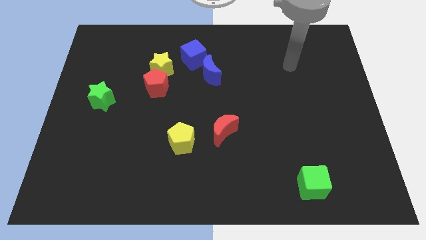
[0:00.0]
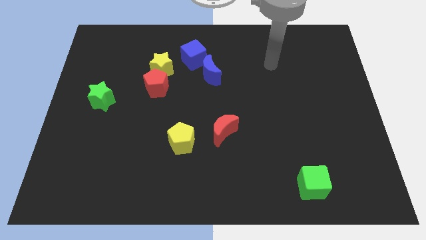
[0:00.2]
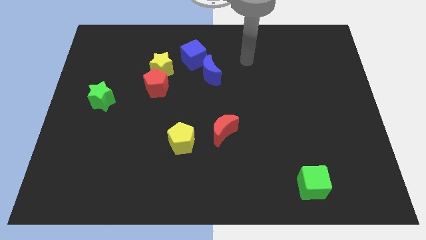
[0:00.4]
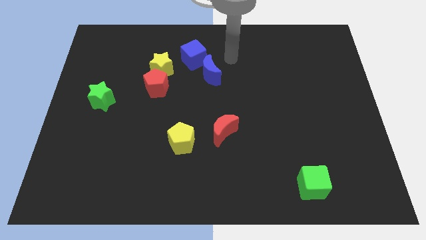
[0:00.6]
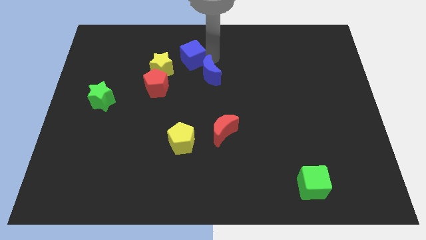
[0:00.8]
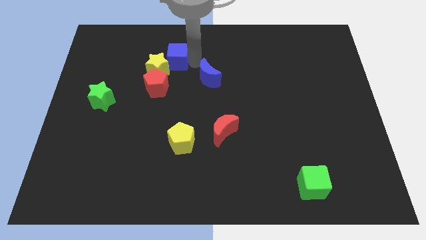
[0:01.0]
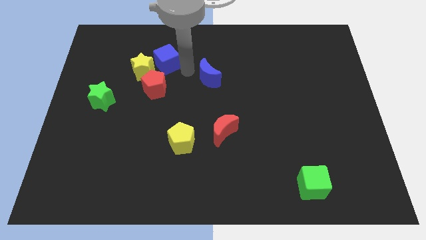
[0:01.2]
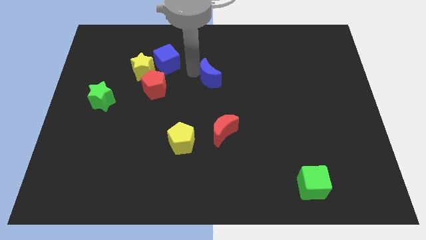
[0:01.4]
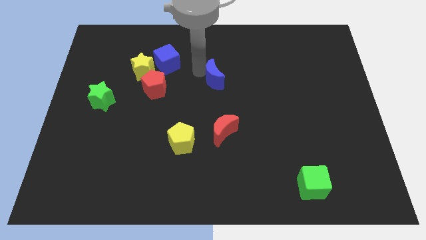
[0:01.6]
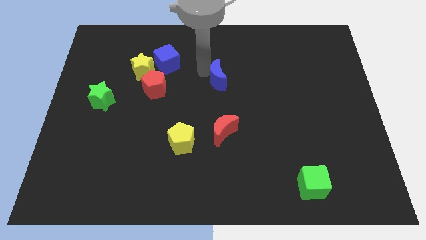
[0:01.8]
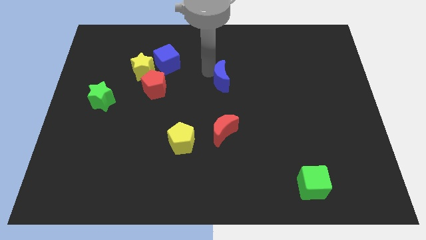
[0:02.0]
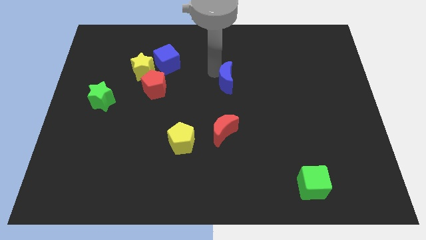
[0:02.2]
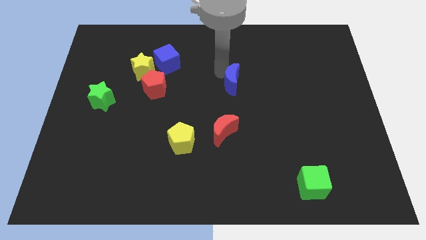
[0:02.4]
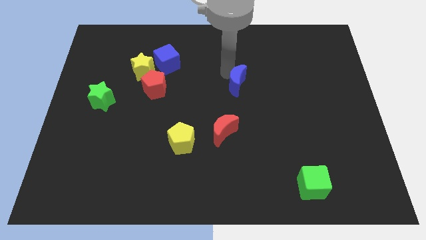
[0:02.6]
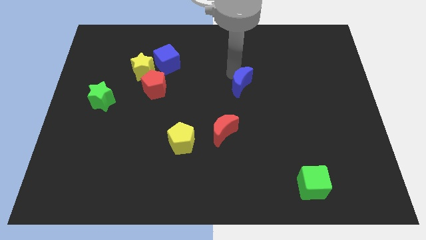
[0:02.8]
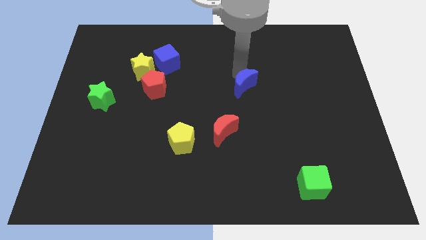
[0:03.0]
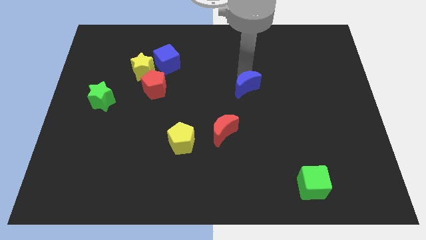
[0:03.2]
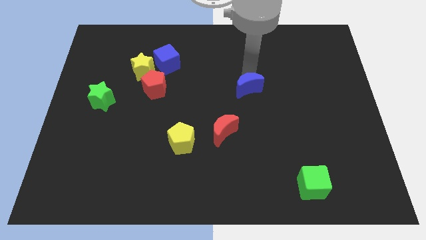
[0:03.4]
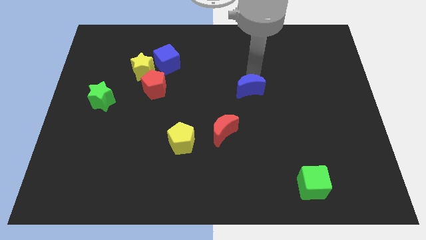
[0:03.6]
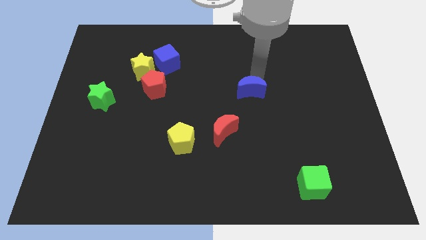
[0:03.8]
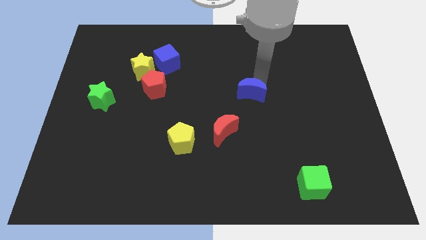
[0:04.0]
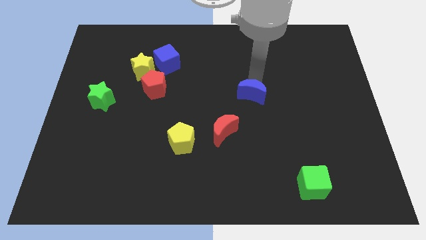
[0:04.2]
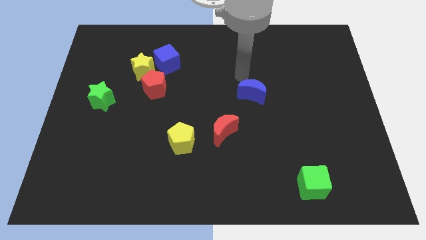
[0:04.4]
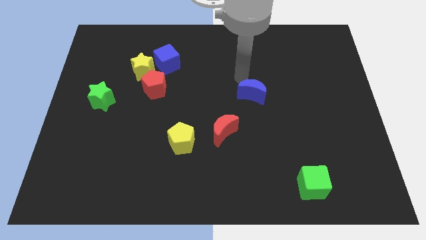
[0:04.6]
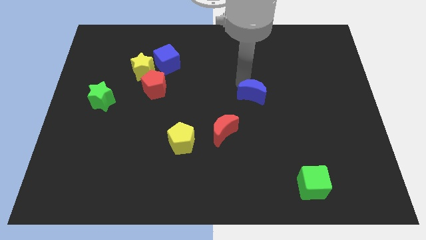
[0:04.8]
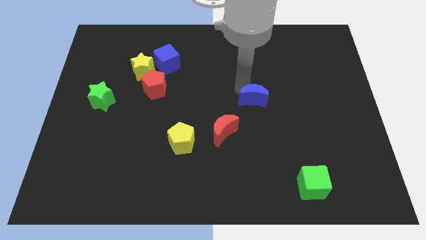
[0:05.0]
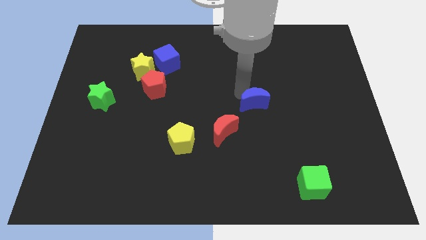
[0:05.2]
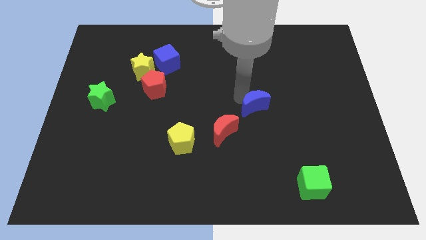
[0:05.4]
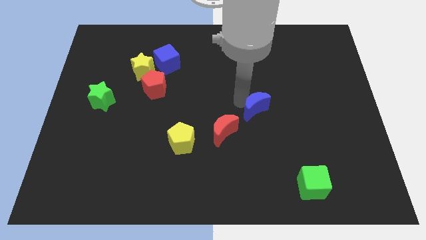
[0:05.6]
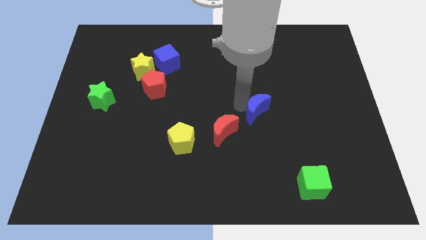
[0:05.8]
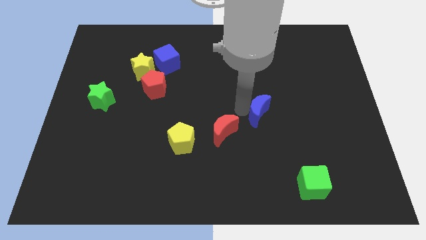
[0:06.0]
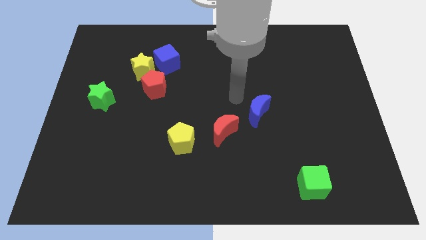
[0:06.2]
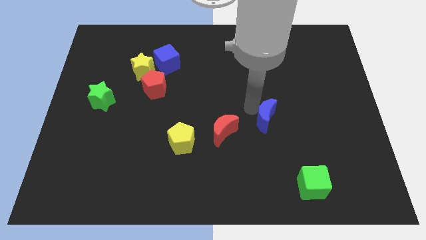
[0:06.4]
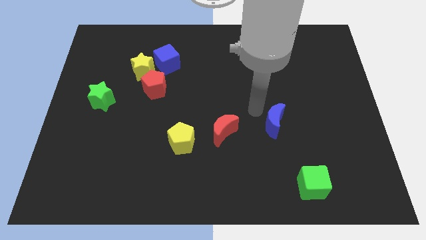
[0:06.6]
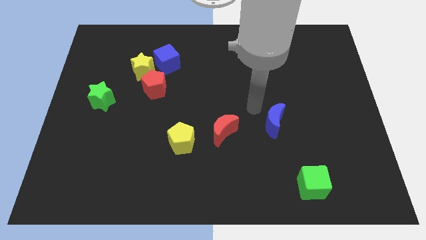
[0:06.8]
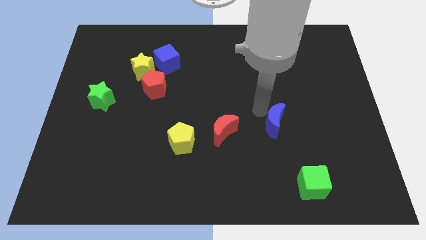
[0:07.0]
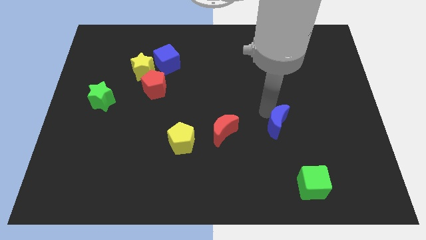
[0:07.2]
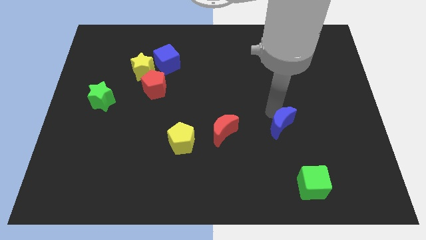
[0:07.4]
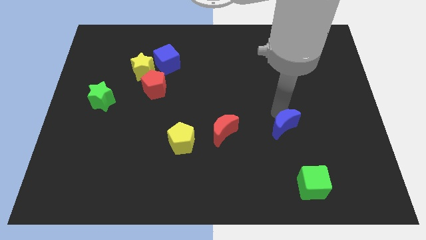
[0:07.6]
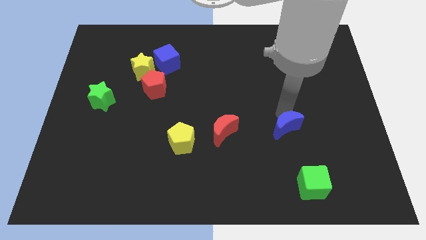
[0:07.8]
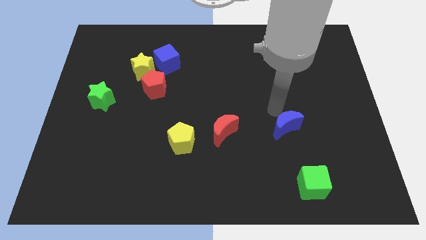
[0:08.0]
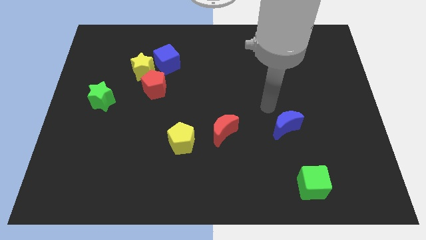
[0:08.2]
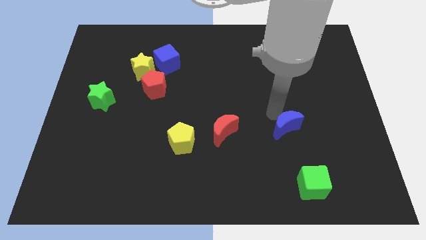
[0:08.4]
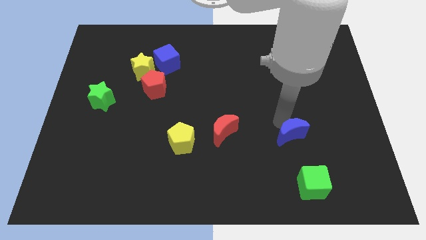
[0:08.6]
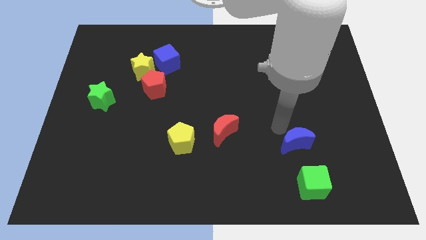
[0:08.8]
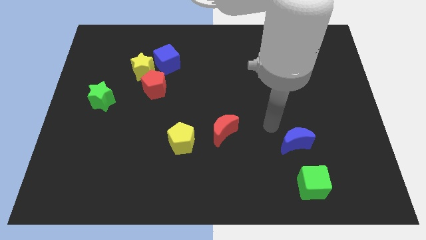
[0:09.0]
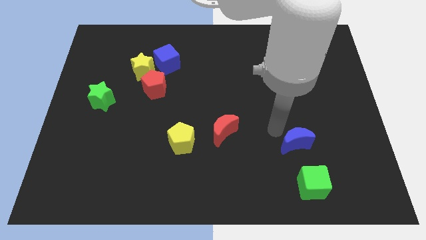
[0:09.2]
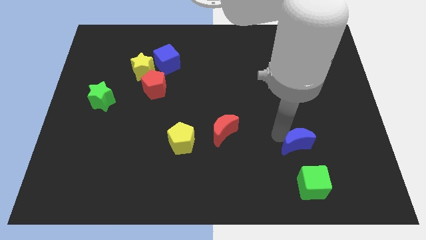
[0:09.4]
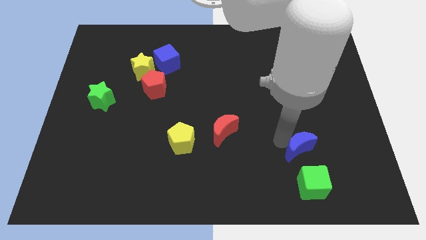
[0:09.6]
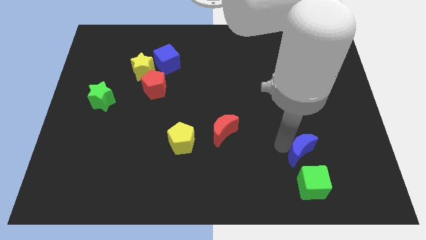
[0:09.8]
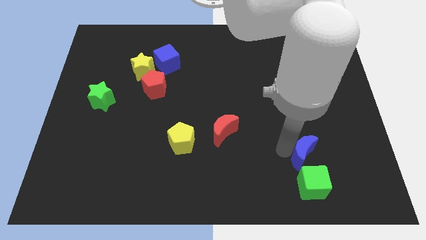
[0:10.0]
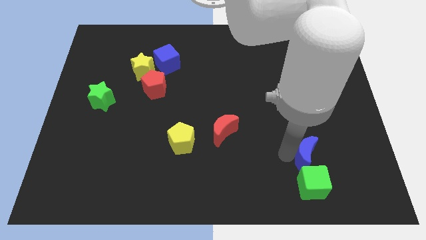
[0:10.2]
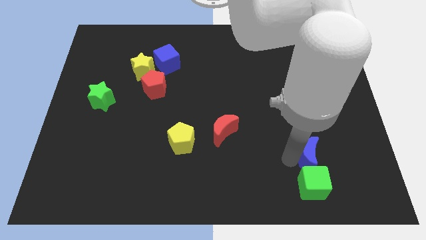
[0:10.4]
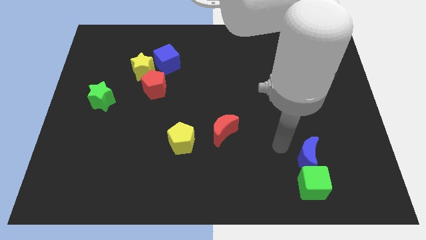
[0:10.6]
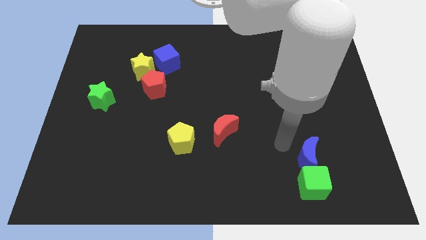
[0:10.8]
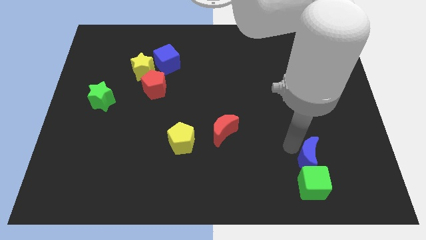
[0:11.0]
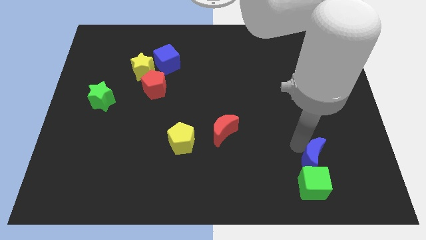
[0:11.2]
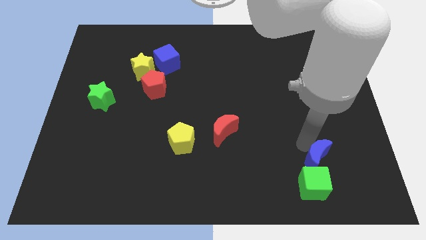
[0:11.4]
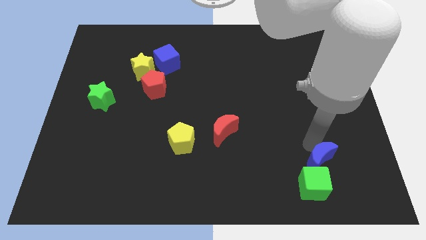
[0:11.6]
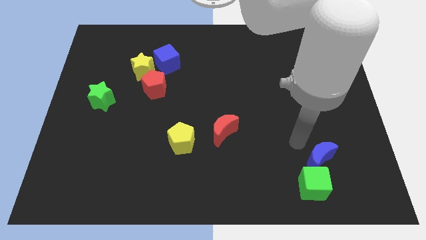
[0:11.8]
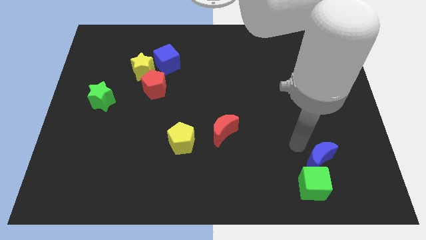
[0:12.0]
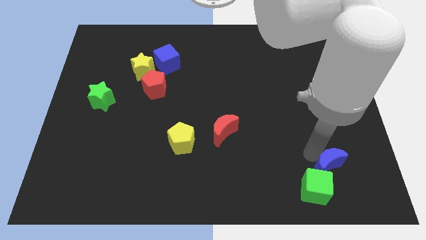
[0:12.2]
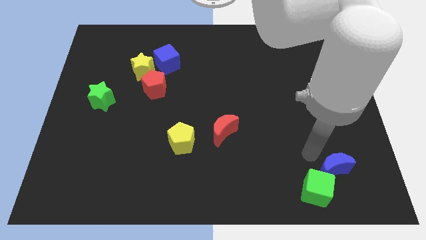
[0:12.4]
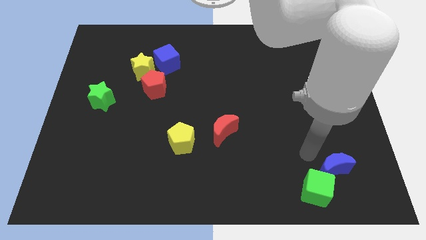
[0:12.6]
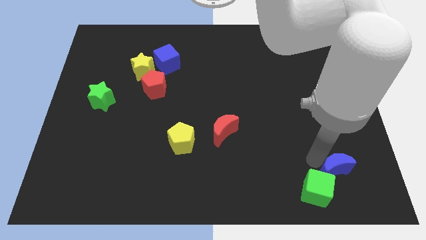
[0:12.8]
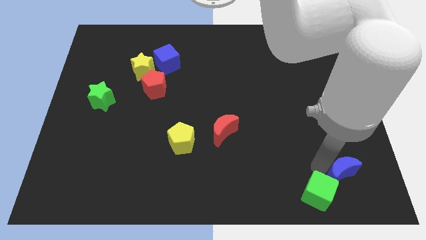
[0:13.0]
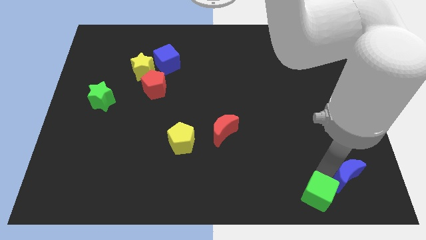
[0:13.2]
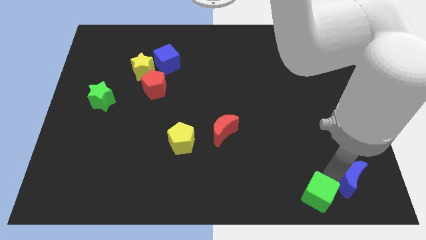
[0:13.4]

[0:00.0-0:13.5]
slide the blue moon to the bottom right corner

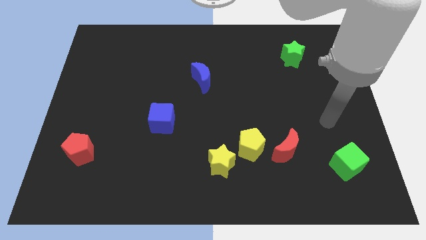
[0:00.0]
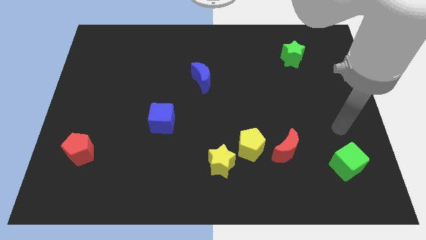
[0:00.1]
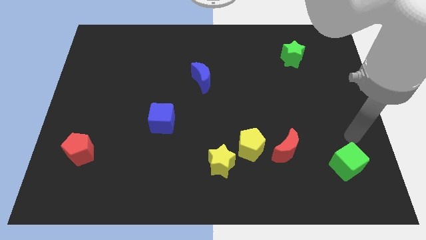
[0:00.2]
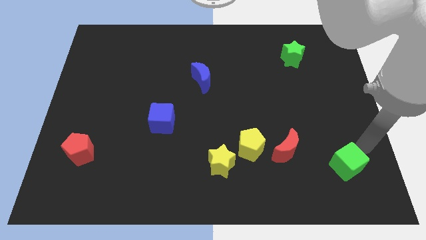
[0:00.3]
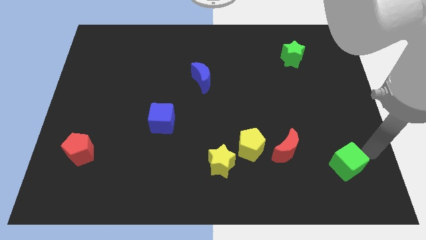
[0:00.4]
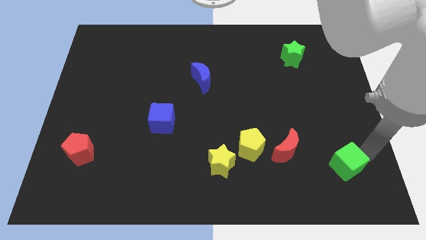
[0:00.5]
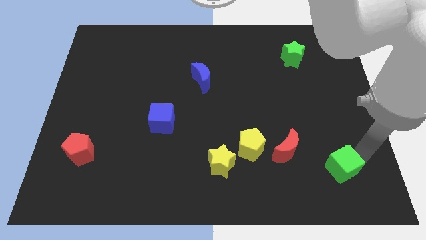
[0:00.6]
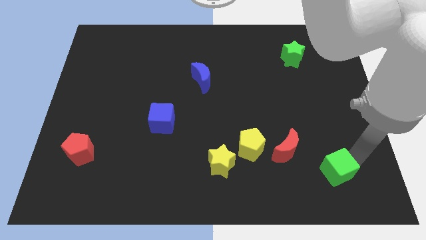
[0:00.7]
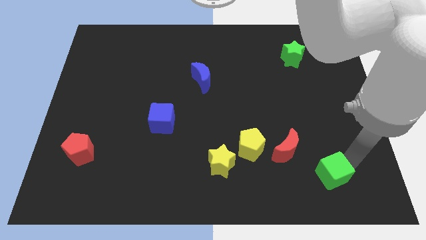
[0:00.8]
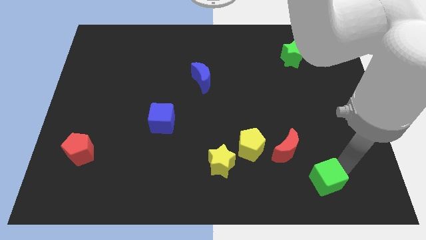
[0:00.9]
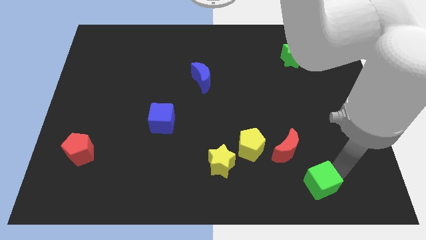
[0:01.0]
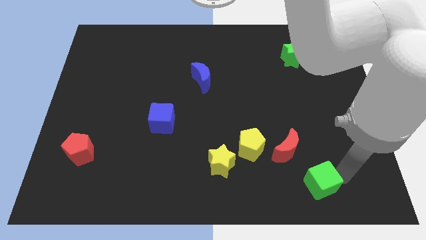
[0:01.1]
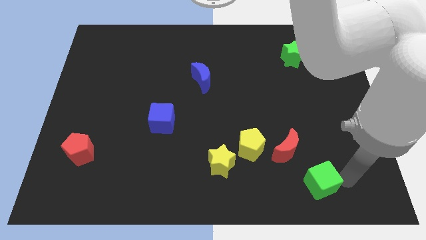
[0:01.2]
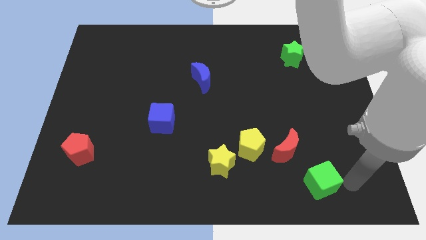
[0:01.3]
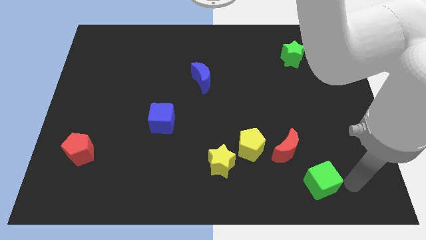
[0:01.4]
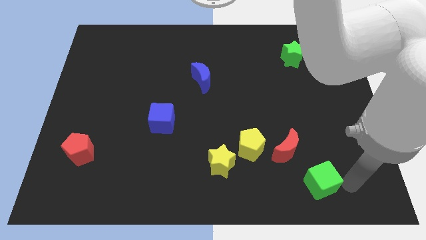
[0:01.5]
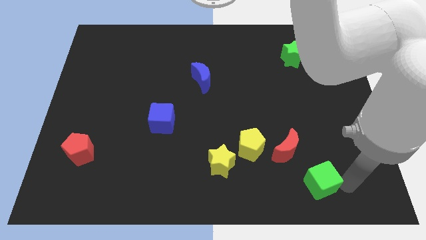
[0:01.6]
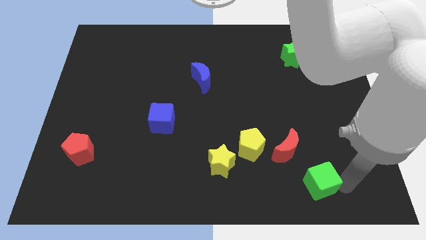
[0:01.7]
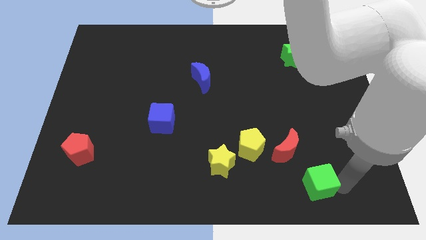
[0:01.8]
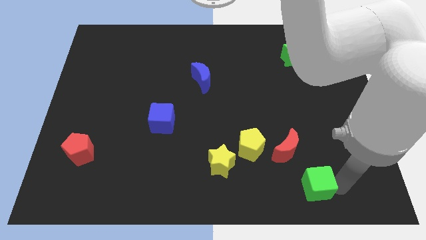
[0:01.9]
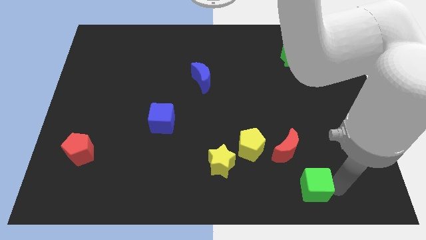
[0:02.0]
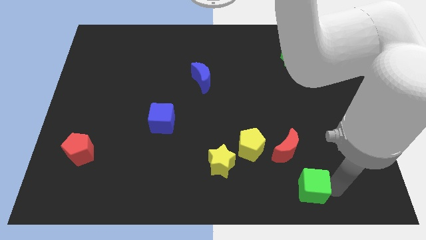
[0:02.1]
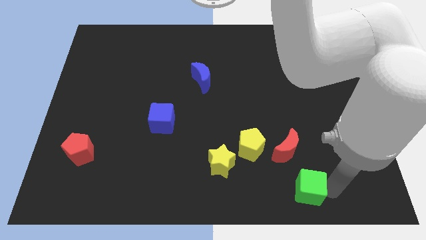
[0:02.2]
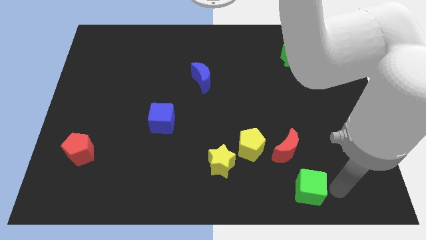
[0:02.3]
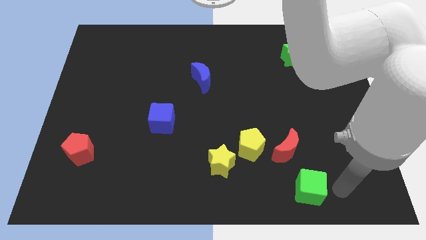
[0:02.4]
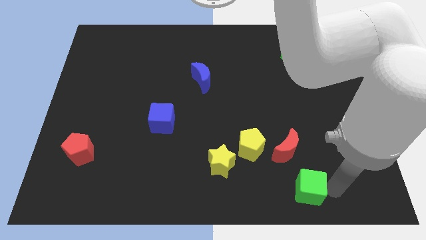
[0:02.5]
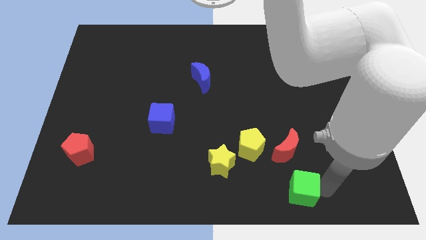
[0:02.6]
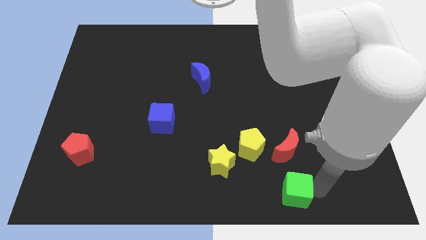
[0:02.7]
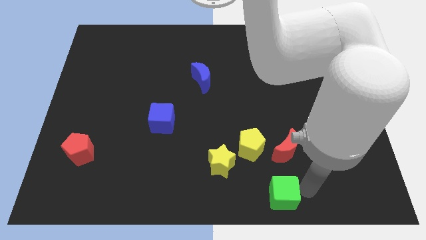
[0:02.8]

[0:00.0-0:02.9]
slide the green cube to the bottom side
